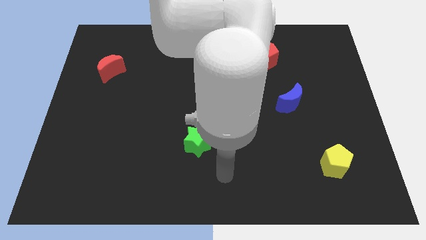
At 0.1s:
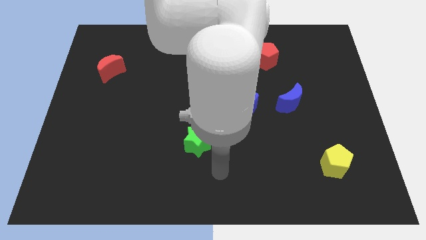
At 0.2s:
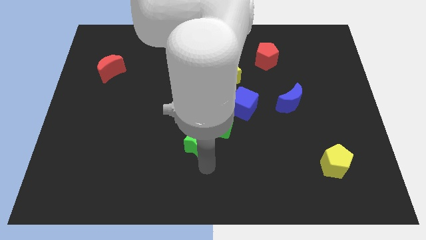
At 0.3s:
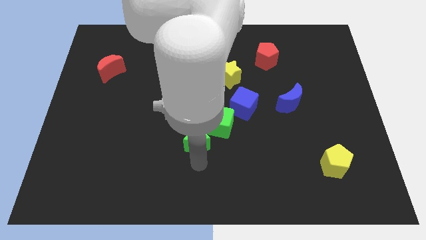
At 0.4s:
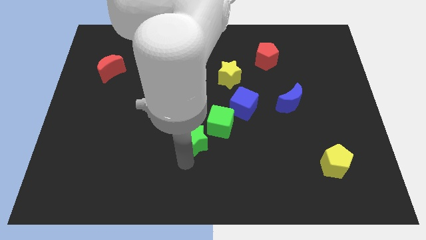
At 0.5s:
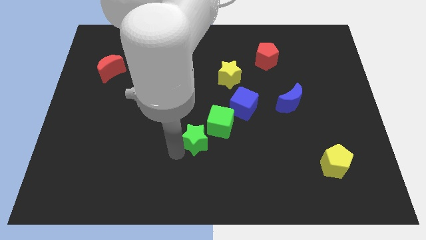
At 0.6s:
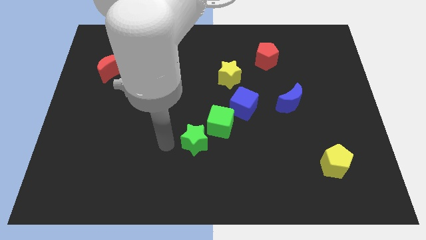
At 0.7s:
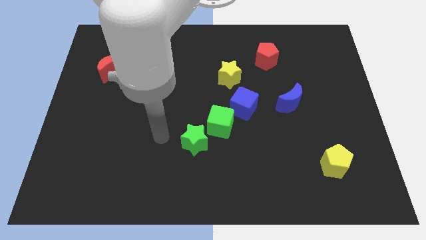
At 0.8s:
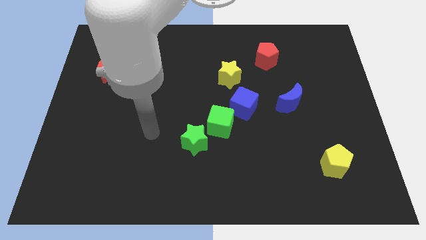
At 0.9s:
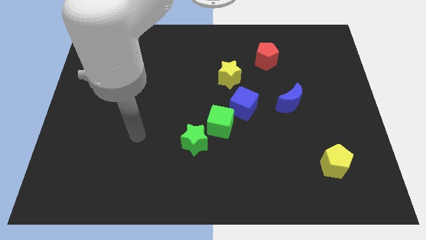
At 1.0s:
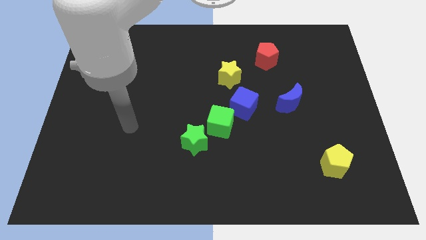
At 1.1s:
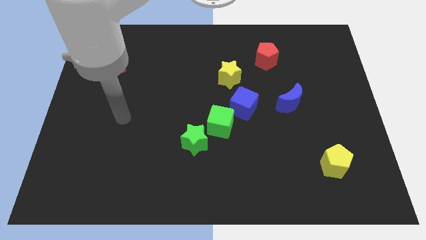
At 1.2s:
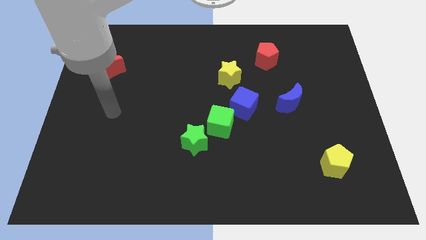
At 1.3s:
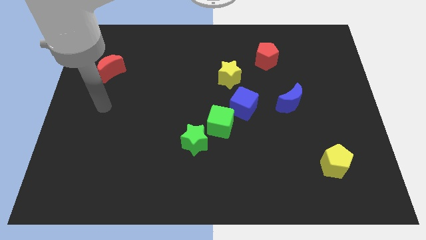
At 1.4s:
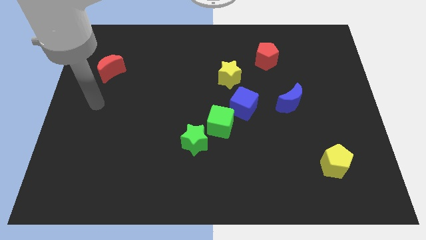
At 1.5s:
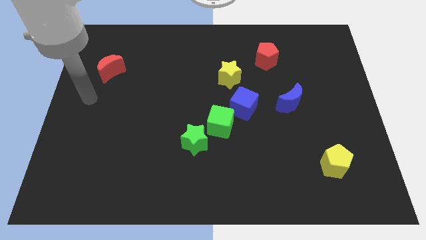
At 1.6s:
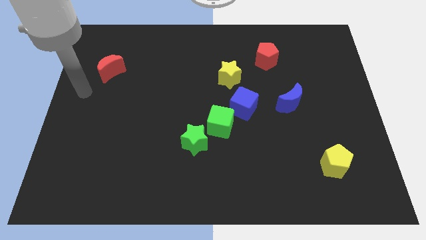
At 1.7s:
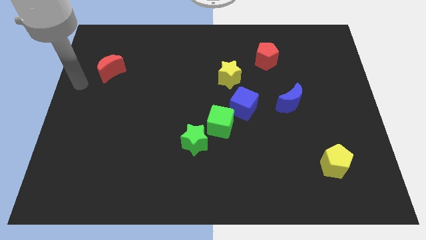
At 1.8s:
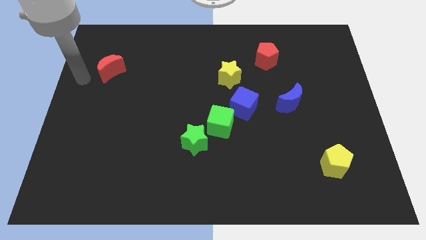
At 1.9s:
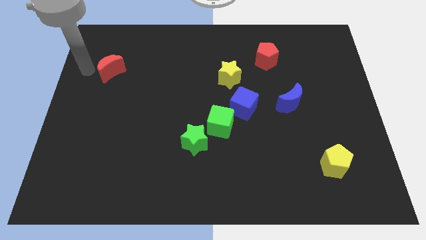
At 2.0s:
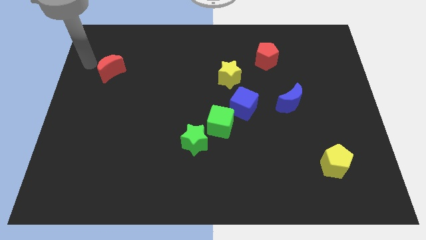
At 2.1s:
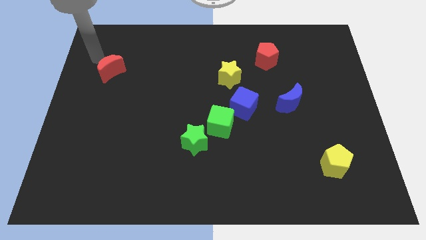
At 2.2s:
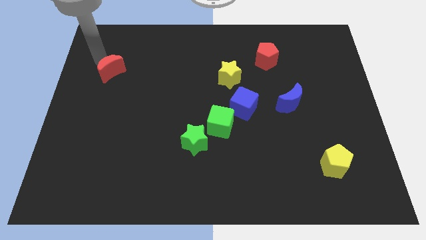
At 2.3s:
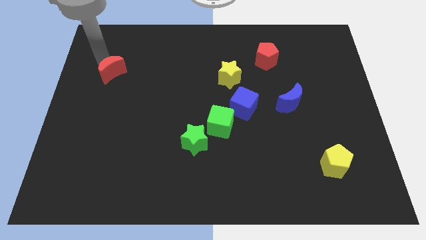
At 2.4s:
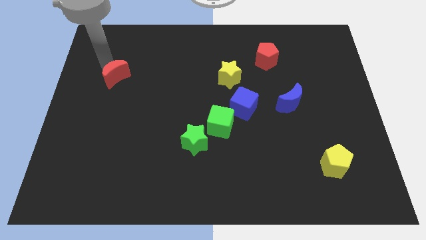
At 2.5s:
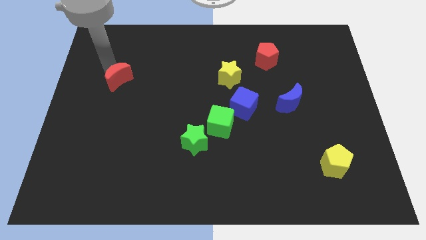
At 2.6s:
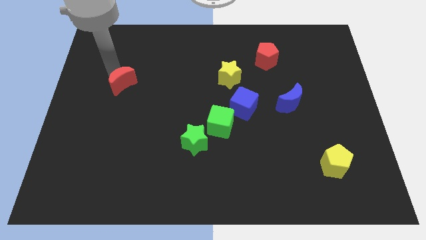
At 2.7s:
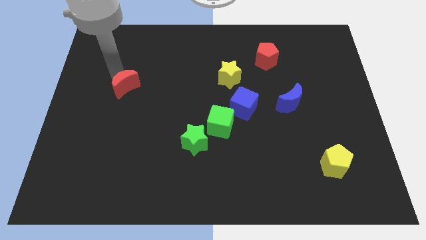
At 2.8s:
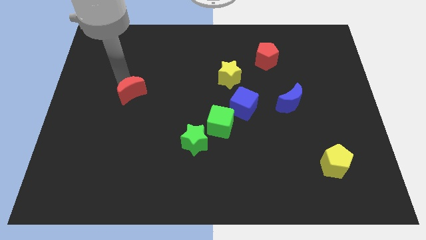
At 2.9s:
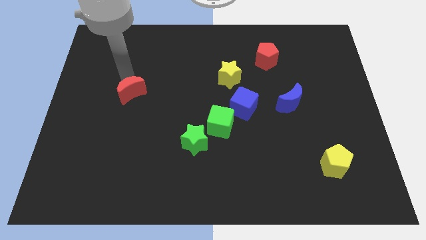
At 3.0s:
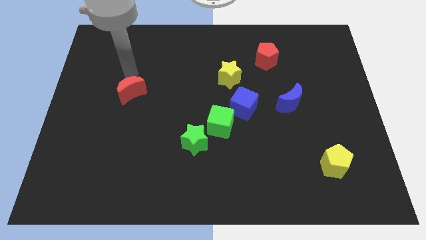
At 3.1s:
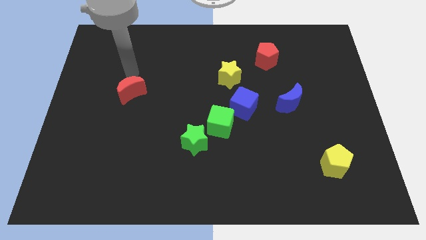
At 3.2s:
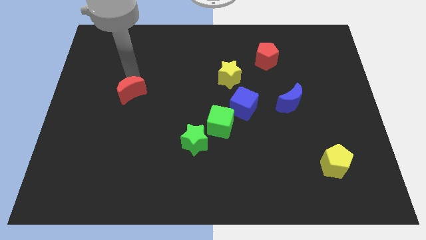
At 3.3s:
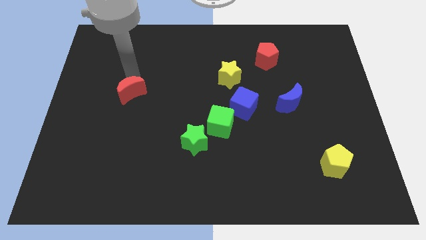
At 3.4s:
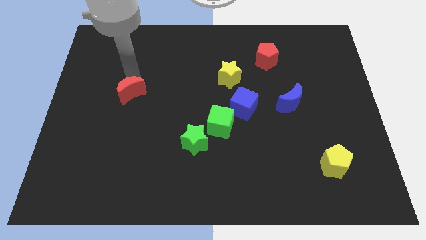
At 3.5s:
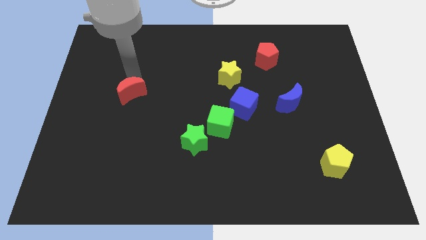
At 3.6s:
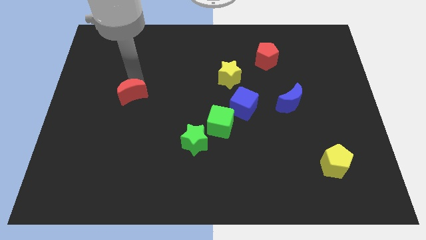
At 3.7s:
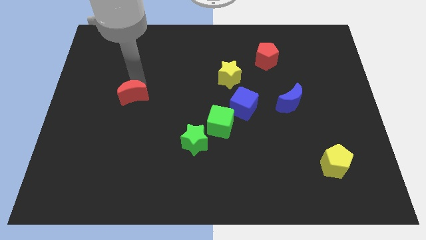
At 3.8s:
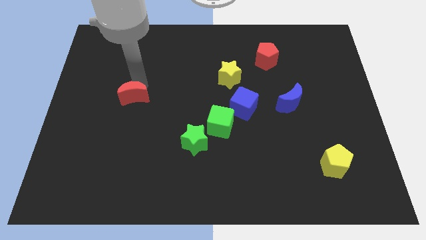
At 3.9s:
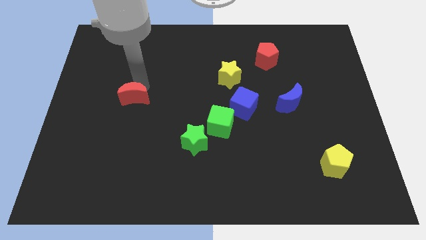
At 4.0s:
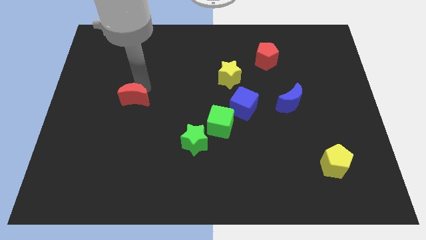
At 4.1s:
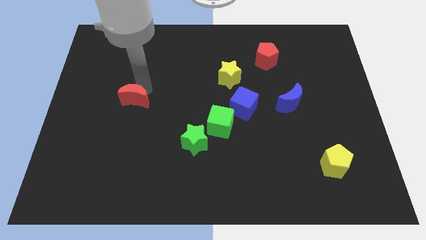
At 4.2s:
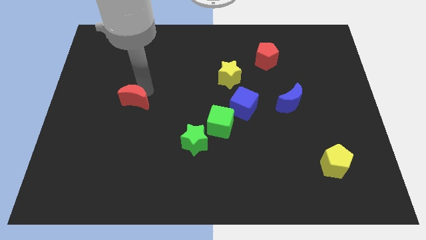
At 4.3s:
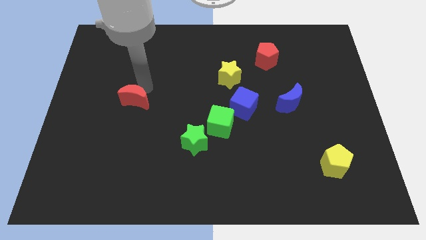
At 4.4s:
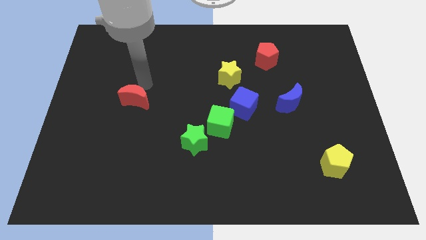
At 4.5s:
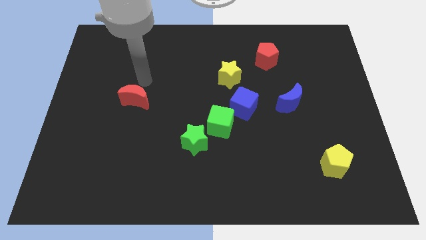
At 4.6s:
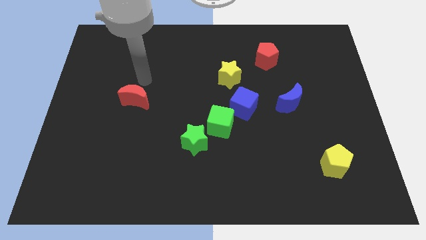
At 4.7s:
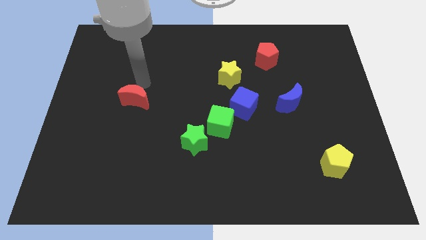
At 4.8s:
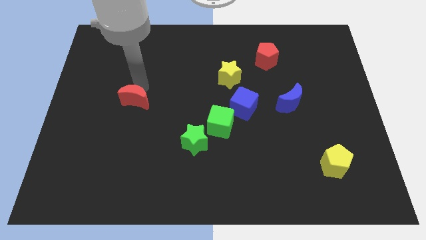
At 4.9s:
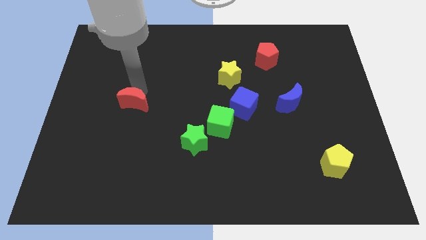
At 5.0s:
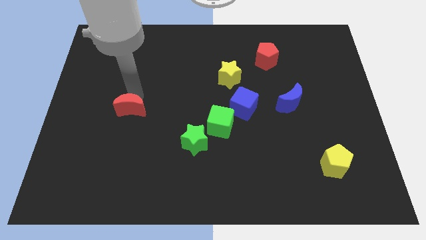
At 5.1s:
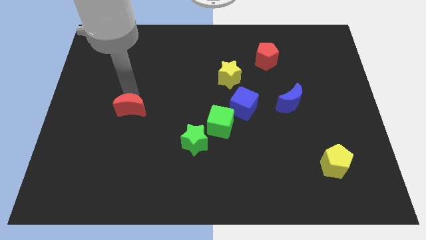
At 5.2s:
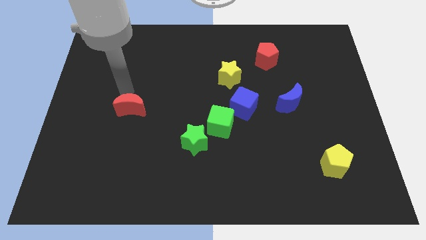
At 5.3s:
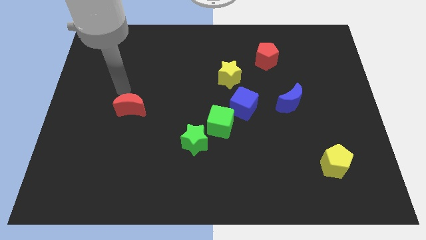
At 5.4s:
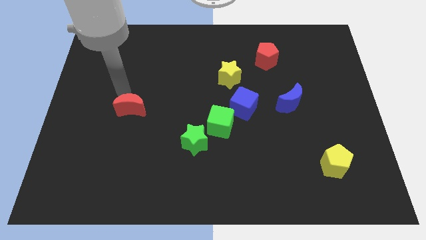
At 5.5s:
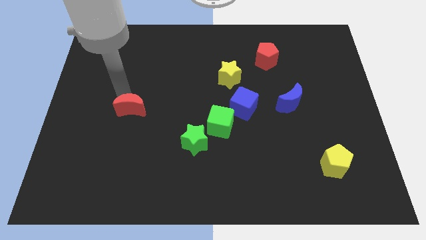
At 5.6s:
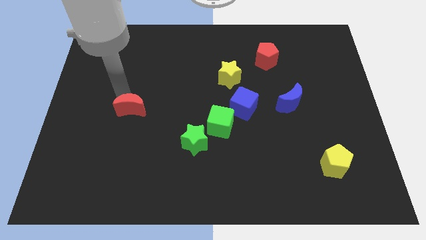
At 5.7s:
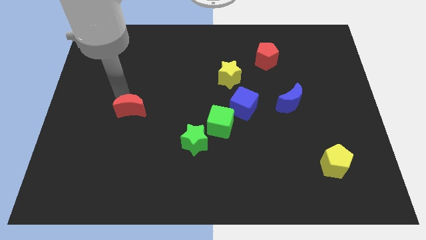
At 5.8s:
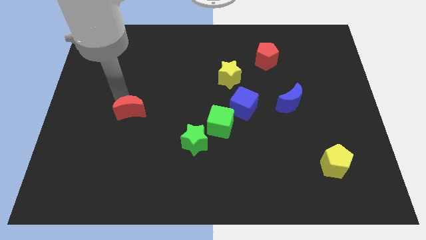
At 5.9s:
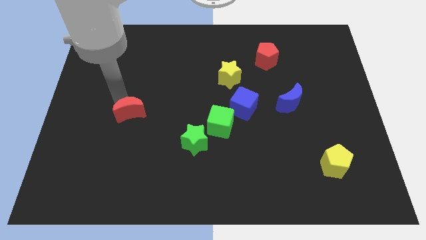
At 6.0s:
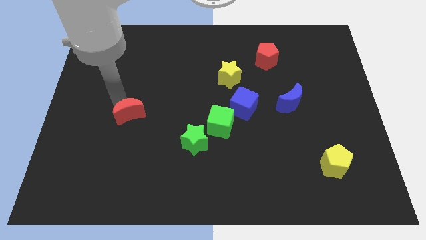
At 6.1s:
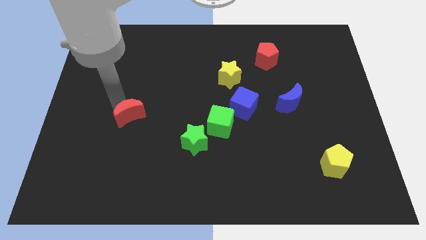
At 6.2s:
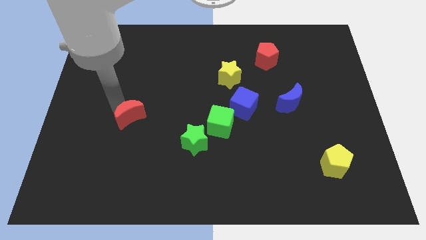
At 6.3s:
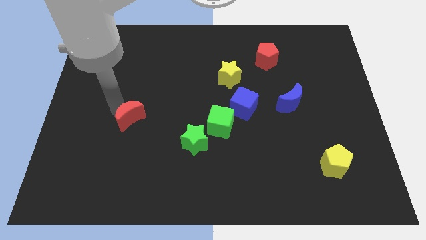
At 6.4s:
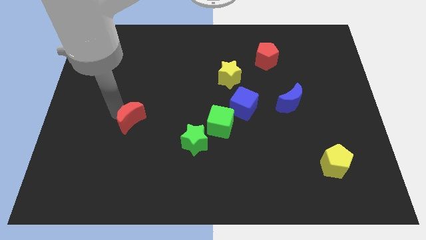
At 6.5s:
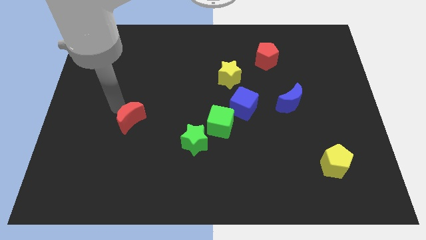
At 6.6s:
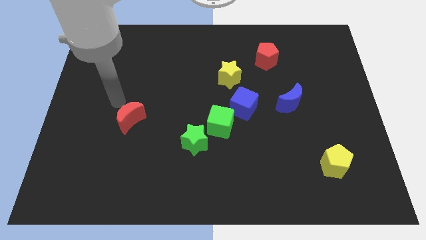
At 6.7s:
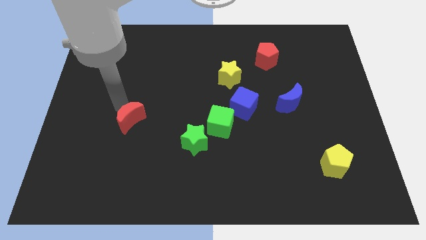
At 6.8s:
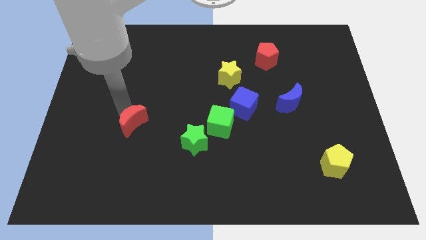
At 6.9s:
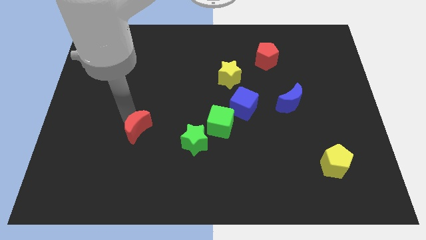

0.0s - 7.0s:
push the red moon just left of the green star

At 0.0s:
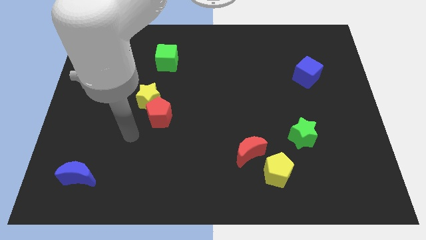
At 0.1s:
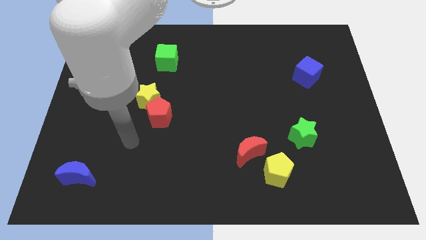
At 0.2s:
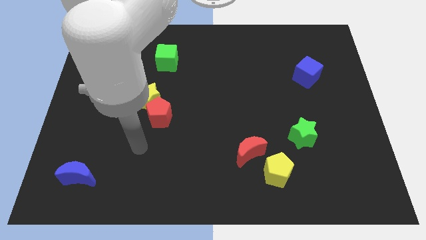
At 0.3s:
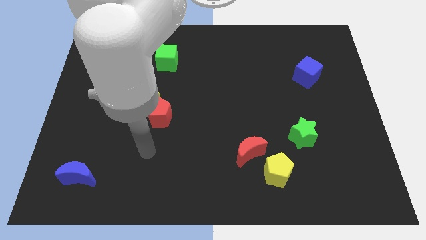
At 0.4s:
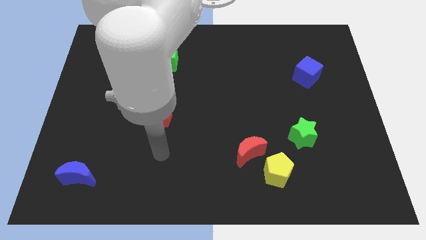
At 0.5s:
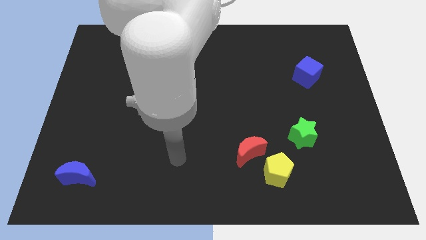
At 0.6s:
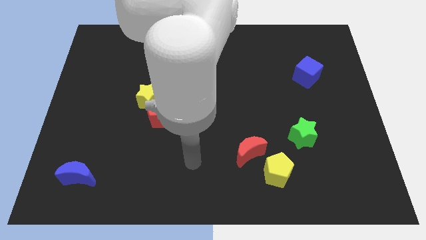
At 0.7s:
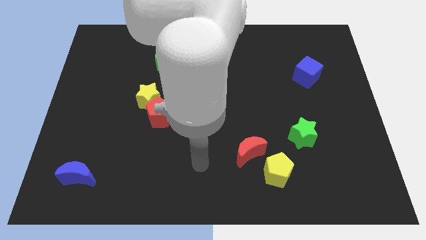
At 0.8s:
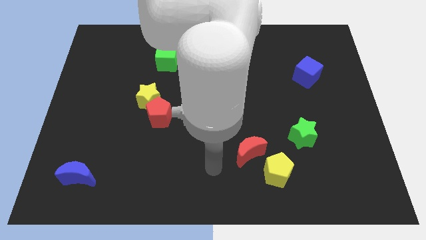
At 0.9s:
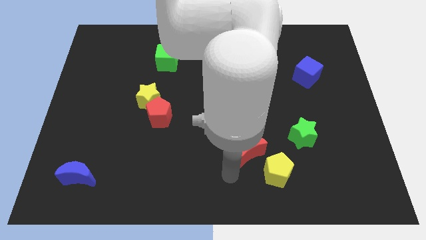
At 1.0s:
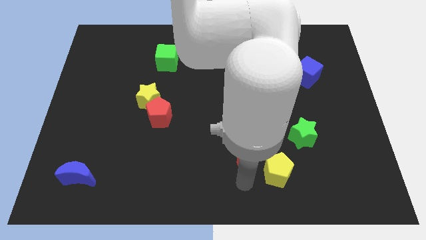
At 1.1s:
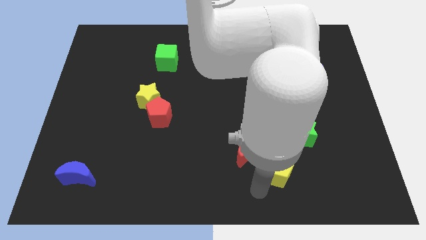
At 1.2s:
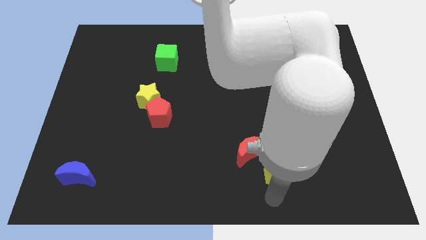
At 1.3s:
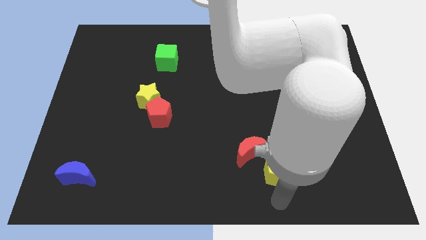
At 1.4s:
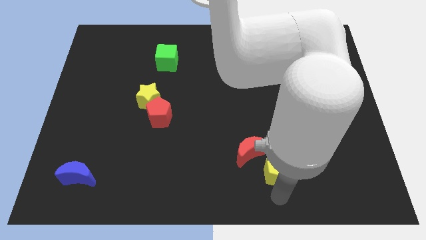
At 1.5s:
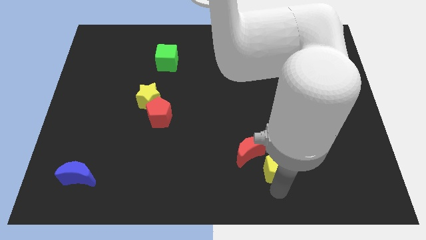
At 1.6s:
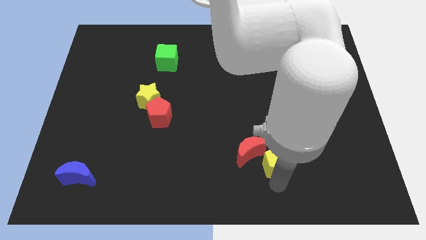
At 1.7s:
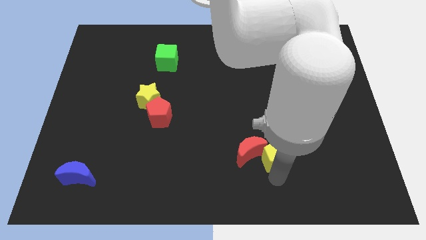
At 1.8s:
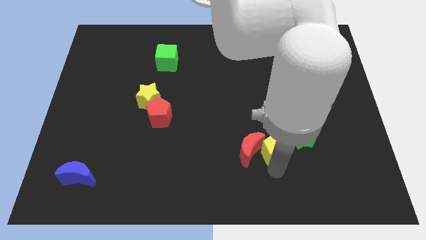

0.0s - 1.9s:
slide the yellow pentagon diagonally up and to the right of the red moon
